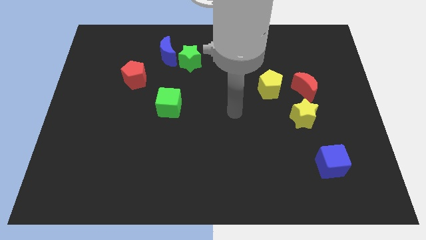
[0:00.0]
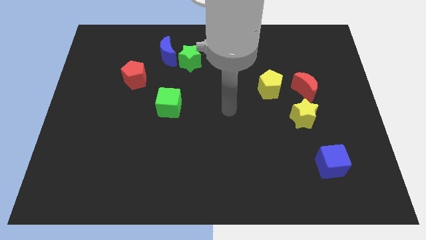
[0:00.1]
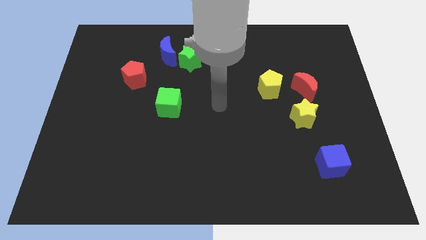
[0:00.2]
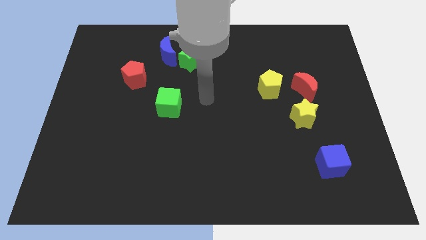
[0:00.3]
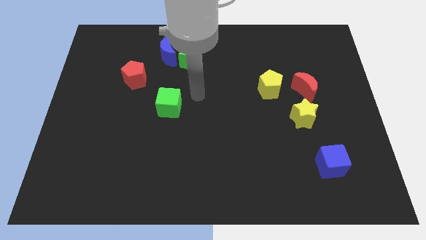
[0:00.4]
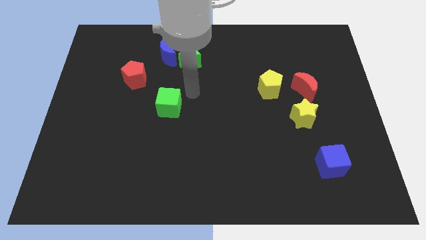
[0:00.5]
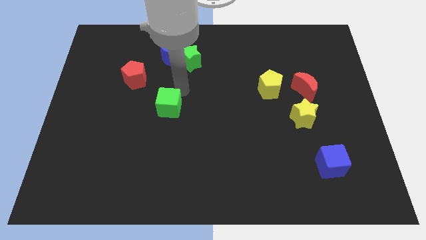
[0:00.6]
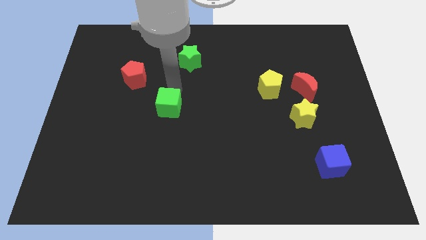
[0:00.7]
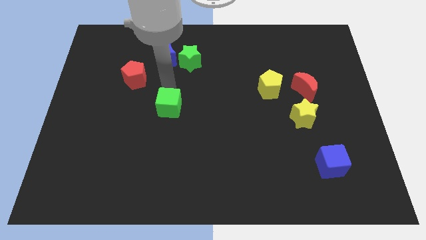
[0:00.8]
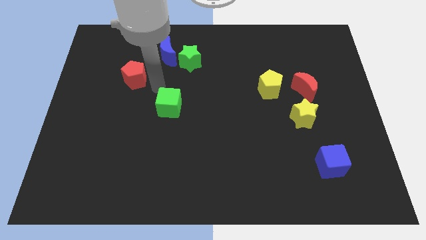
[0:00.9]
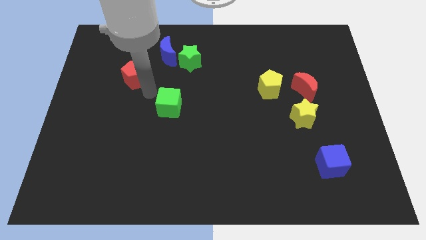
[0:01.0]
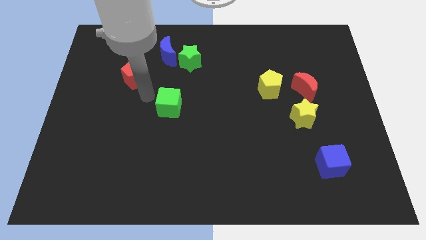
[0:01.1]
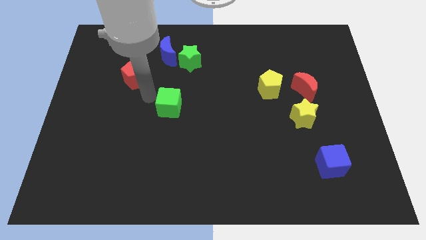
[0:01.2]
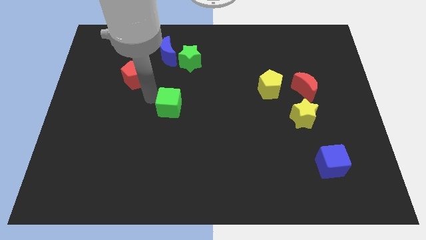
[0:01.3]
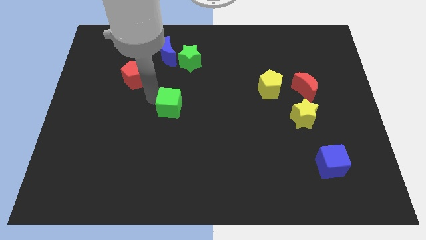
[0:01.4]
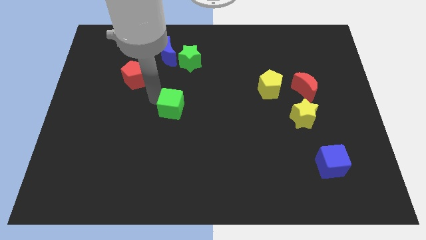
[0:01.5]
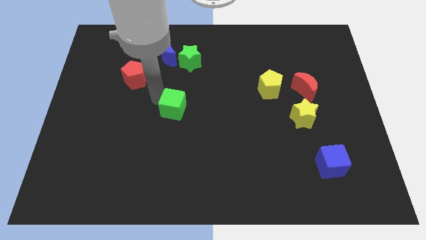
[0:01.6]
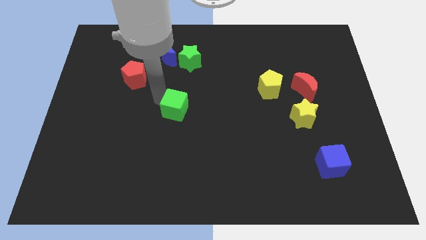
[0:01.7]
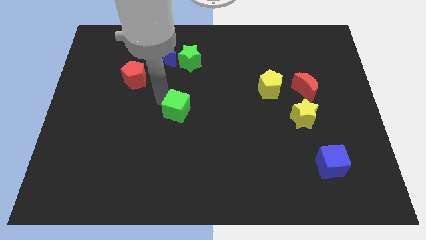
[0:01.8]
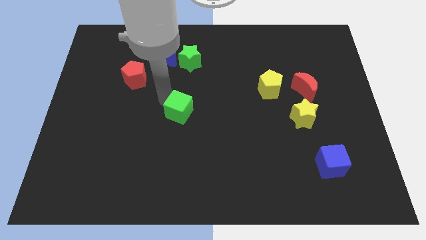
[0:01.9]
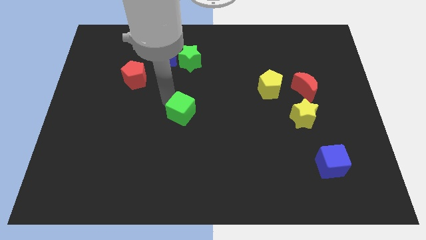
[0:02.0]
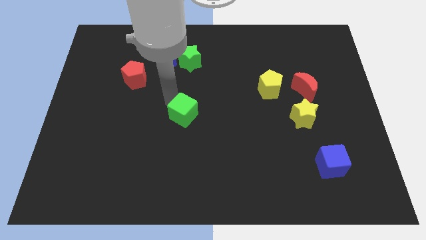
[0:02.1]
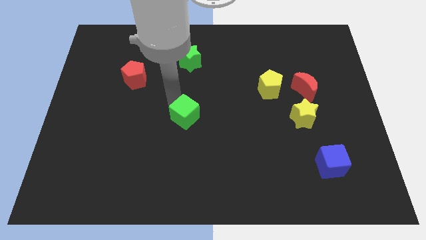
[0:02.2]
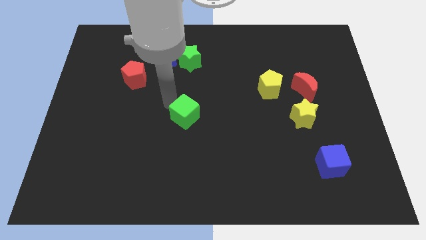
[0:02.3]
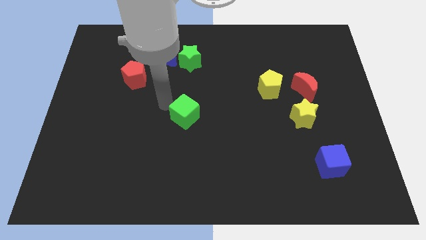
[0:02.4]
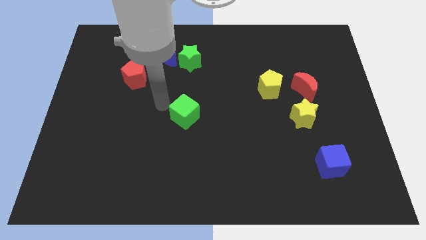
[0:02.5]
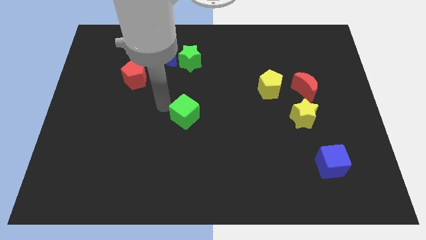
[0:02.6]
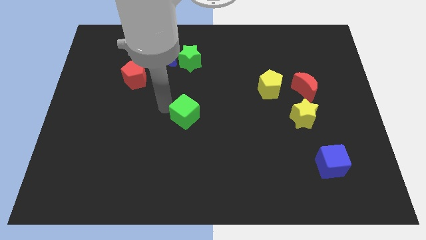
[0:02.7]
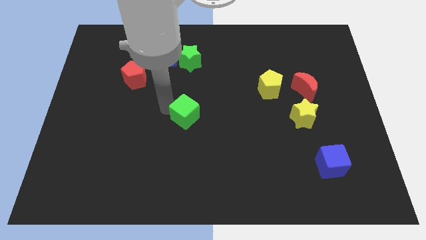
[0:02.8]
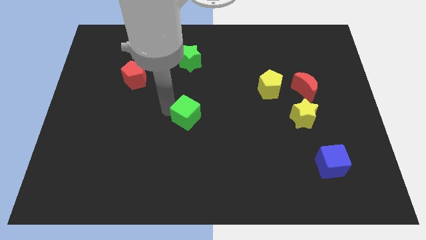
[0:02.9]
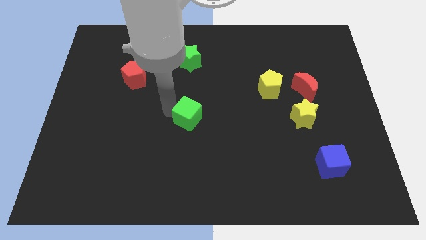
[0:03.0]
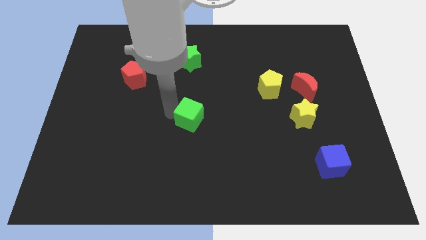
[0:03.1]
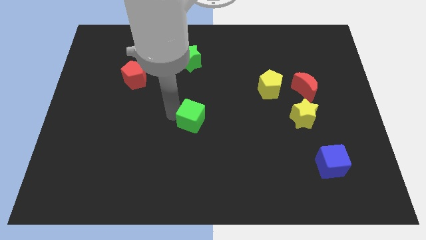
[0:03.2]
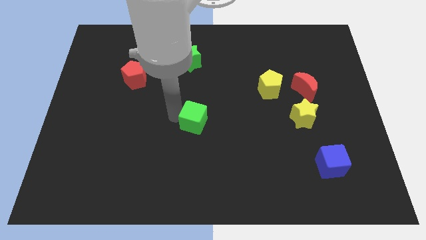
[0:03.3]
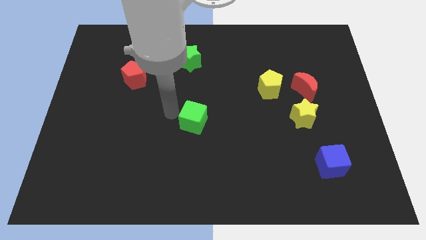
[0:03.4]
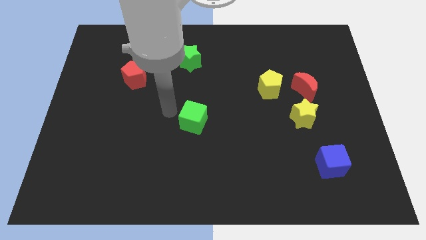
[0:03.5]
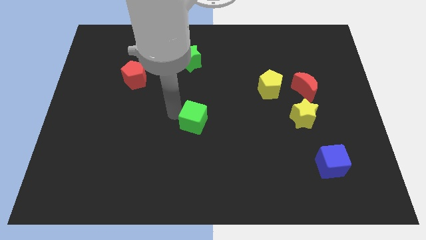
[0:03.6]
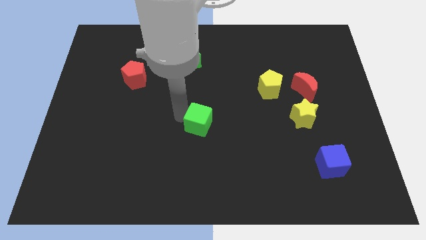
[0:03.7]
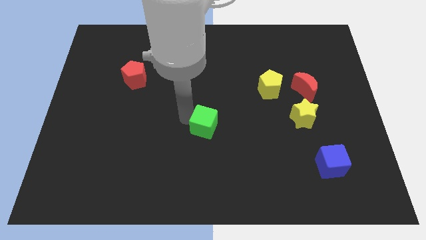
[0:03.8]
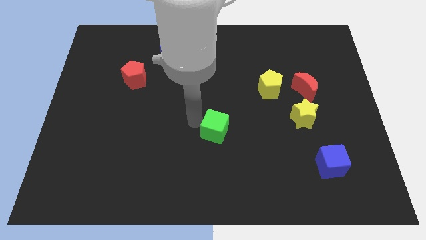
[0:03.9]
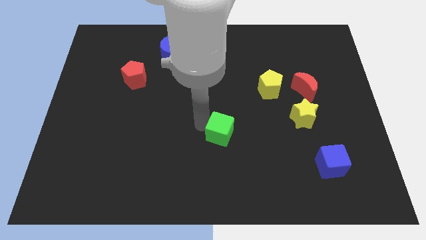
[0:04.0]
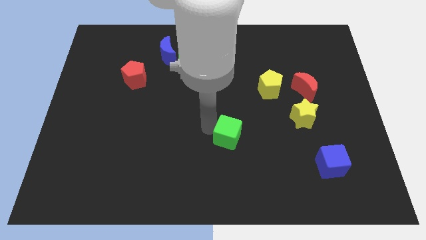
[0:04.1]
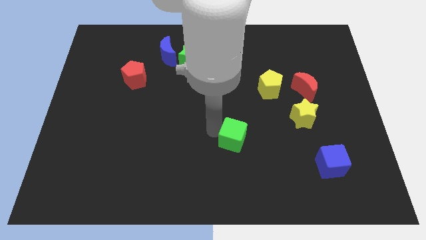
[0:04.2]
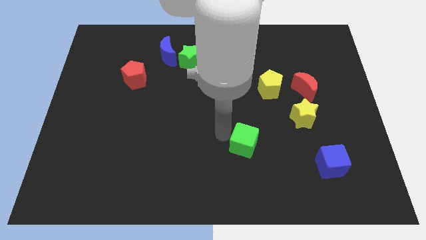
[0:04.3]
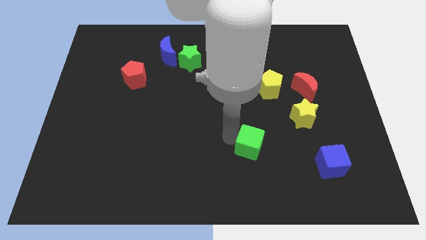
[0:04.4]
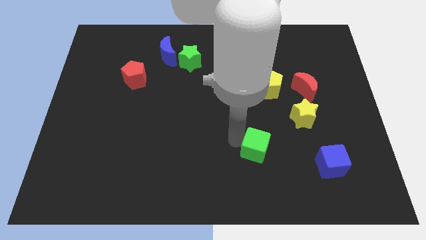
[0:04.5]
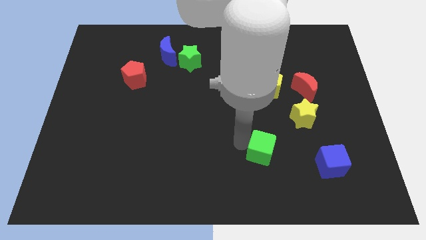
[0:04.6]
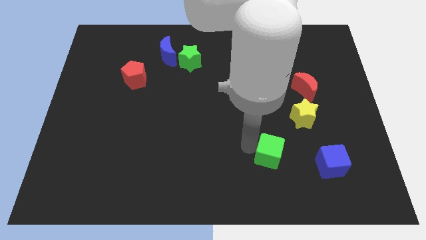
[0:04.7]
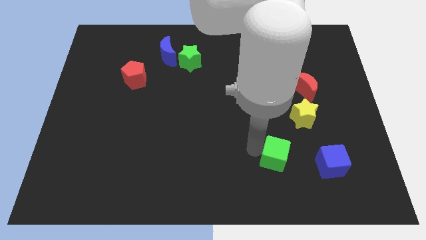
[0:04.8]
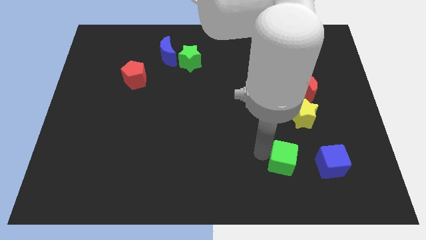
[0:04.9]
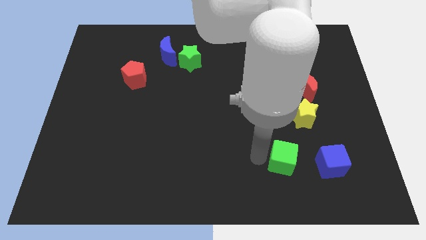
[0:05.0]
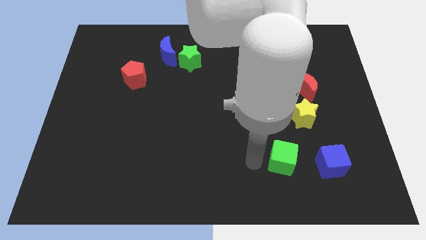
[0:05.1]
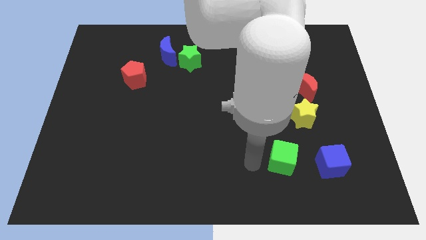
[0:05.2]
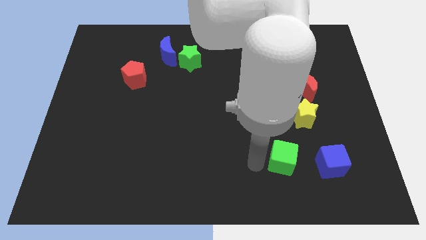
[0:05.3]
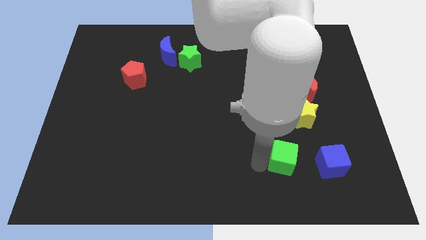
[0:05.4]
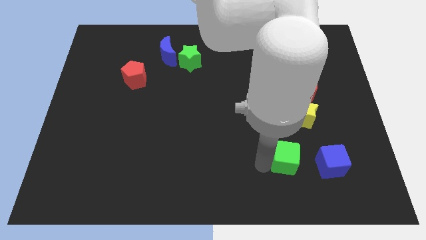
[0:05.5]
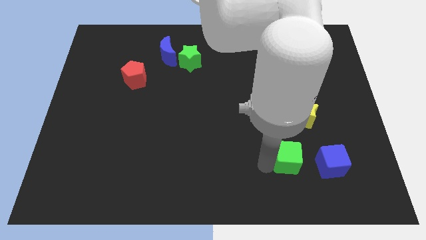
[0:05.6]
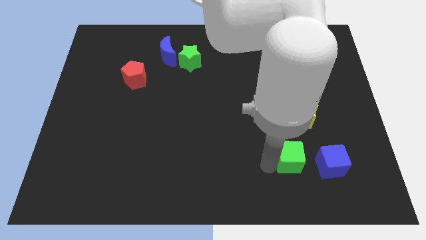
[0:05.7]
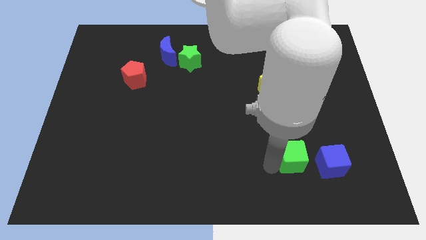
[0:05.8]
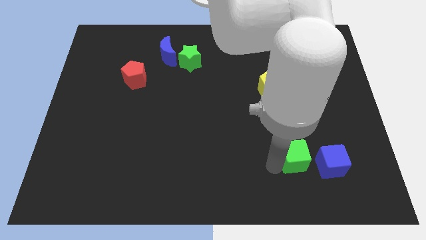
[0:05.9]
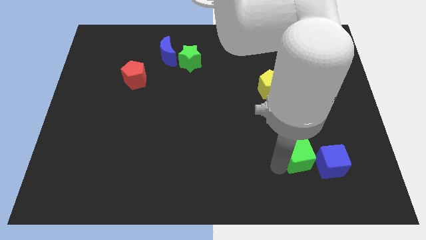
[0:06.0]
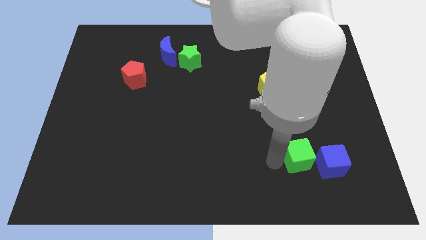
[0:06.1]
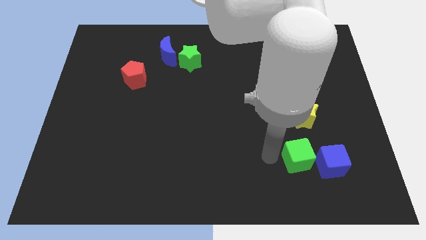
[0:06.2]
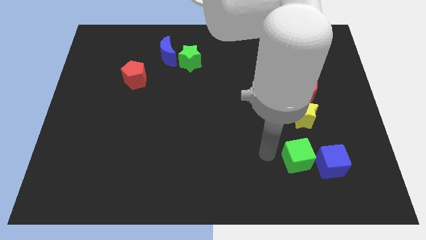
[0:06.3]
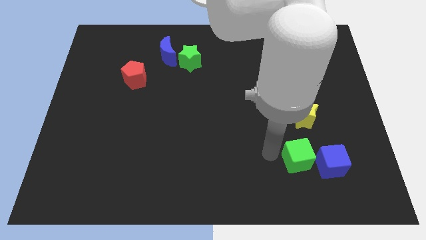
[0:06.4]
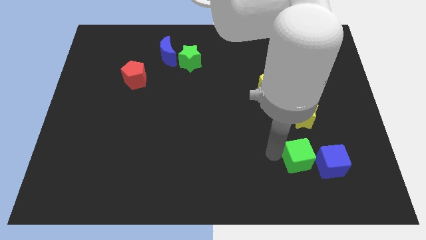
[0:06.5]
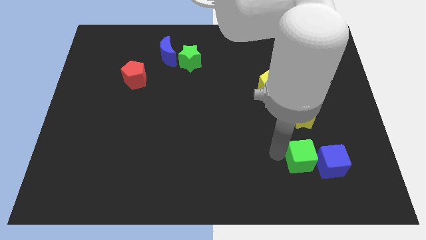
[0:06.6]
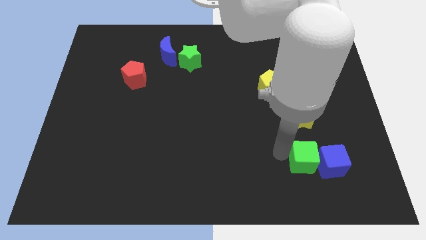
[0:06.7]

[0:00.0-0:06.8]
move the green cube next to the blue cube

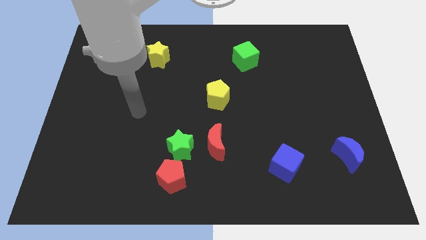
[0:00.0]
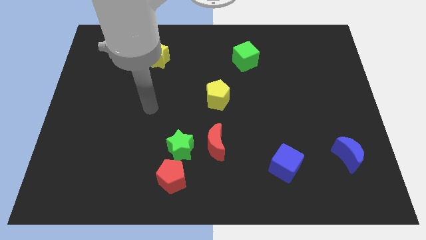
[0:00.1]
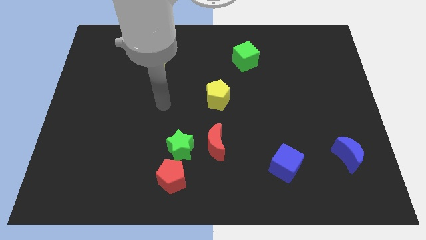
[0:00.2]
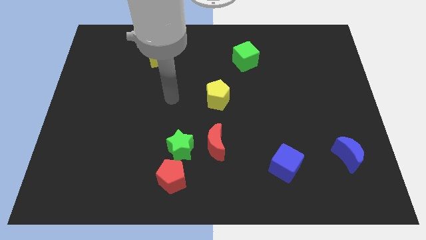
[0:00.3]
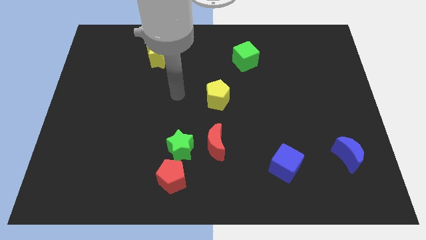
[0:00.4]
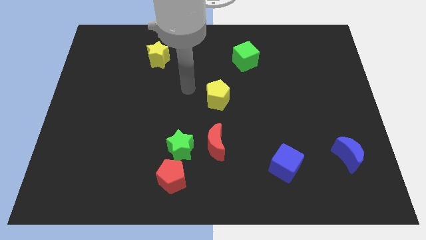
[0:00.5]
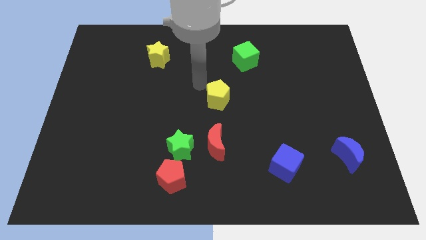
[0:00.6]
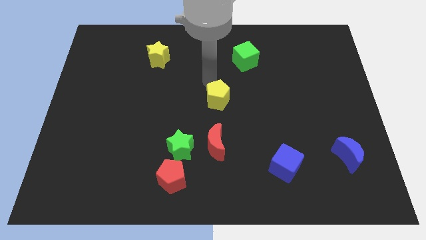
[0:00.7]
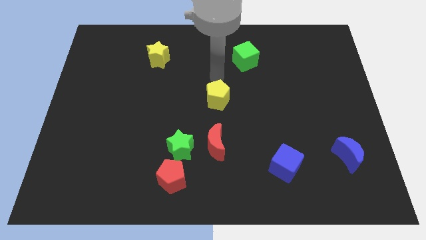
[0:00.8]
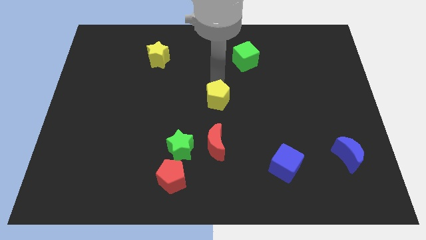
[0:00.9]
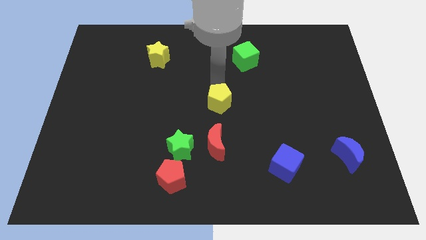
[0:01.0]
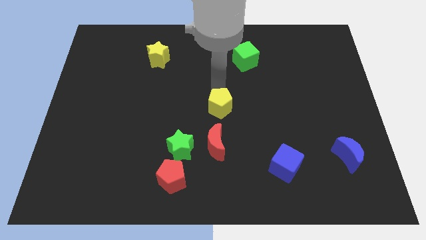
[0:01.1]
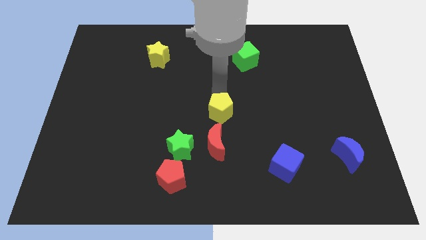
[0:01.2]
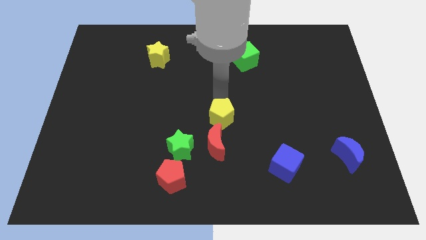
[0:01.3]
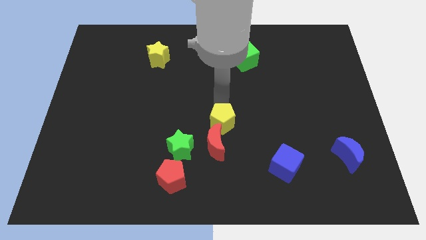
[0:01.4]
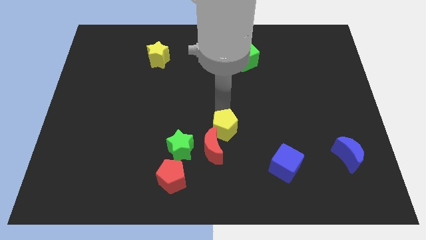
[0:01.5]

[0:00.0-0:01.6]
push the yellow pentagon to the red moon

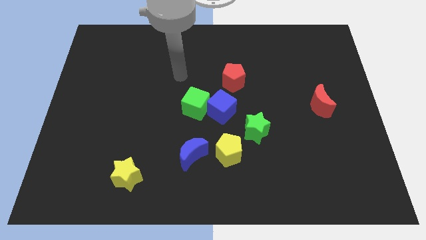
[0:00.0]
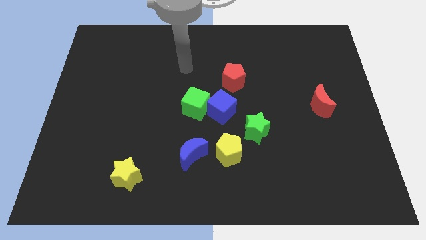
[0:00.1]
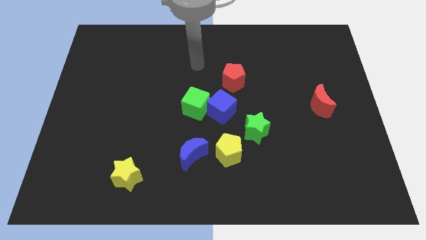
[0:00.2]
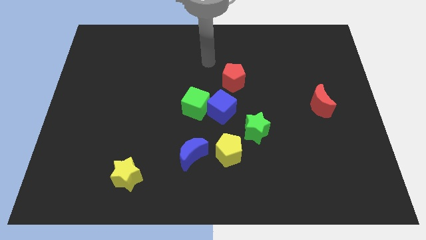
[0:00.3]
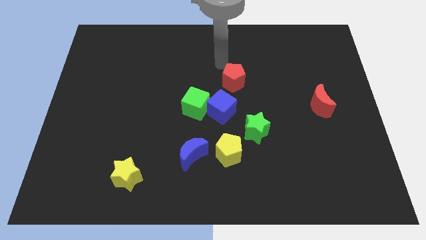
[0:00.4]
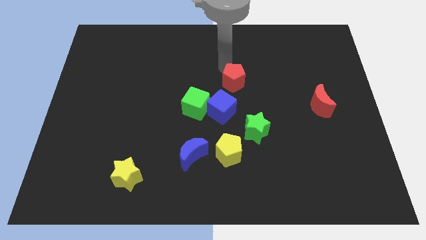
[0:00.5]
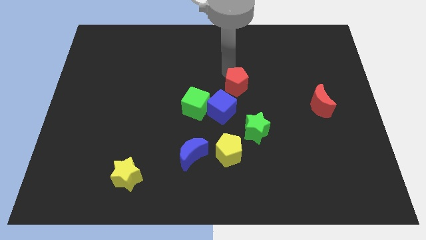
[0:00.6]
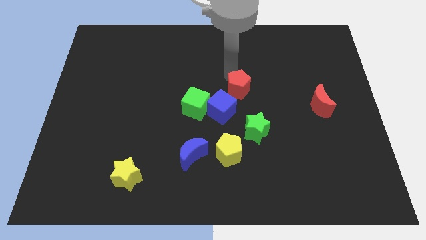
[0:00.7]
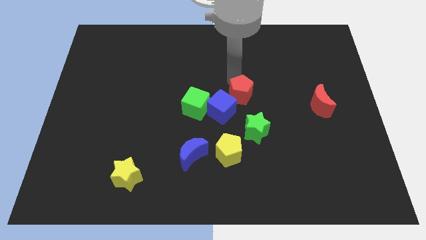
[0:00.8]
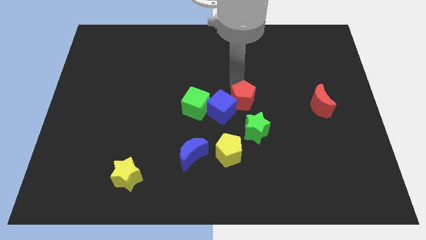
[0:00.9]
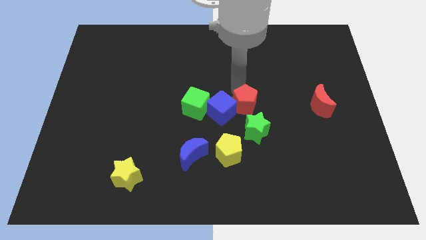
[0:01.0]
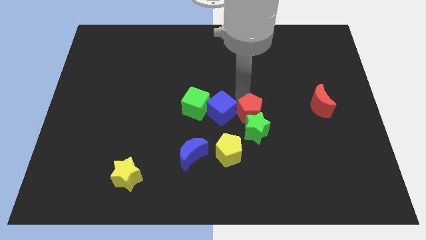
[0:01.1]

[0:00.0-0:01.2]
move the red pentagon next to the green star
